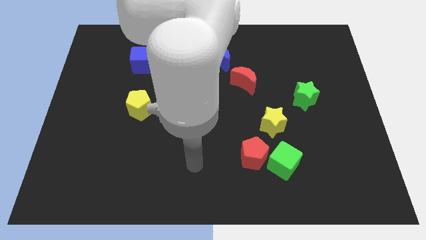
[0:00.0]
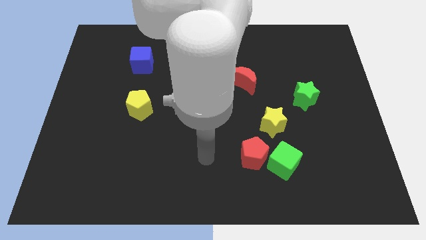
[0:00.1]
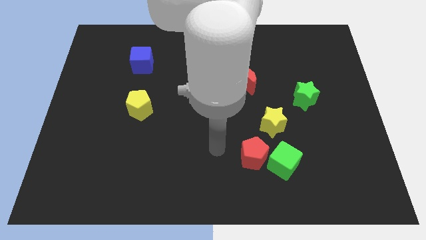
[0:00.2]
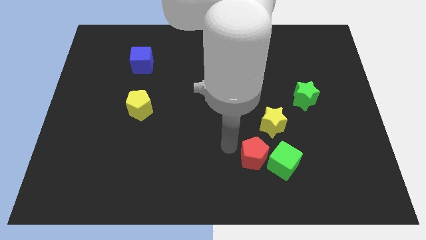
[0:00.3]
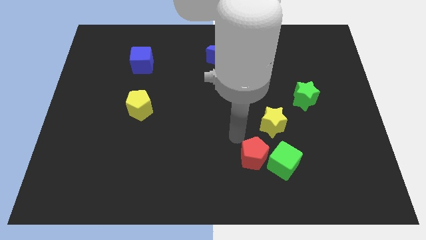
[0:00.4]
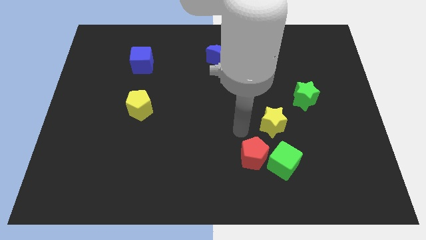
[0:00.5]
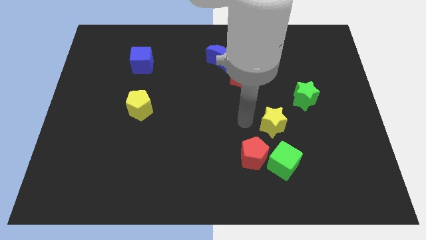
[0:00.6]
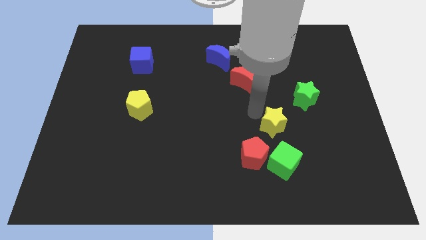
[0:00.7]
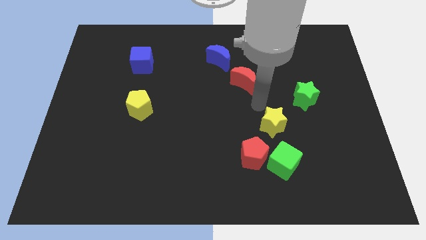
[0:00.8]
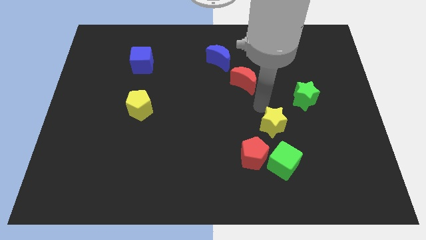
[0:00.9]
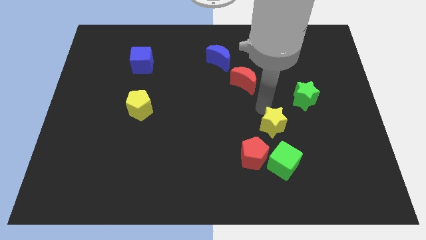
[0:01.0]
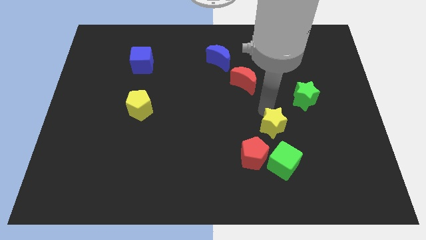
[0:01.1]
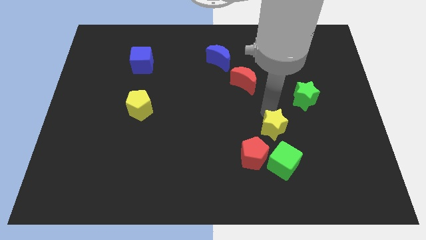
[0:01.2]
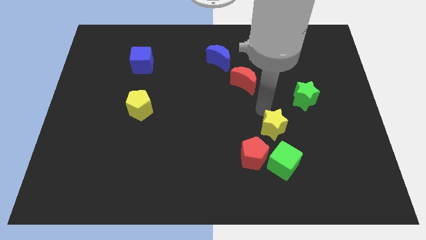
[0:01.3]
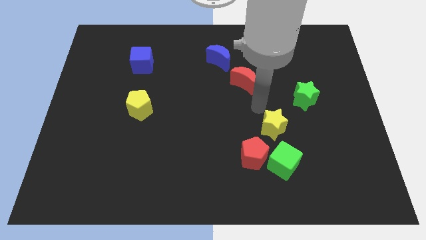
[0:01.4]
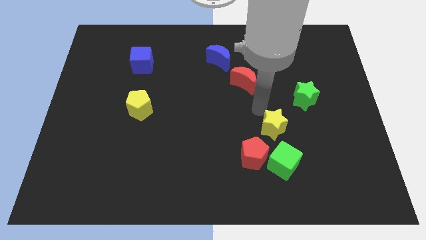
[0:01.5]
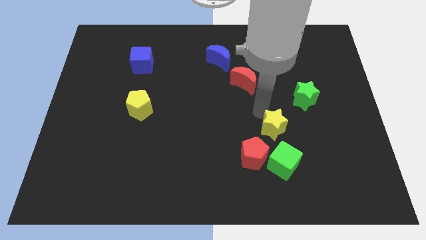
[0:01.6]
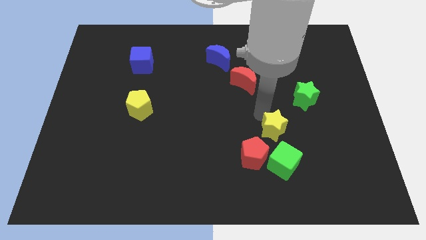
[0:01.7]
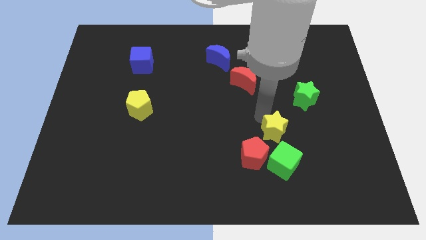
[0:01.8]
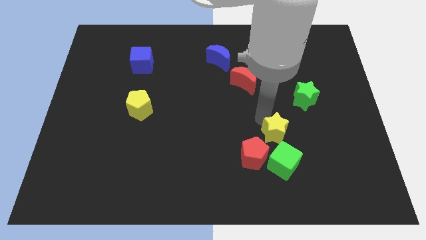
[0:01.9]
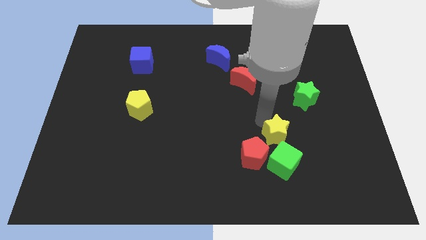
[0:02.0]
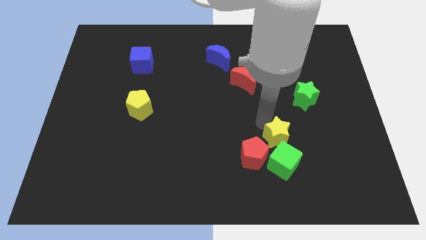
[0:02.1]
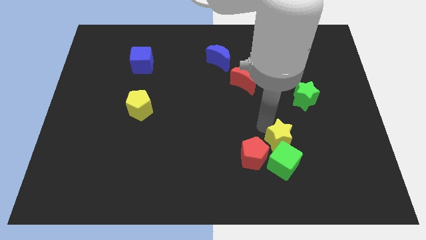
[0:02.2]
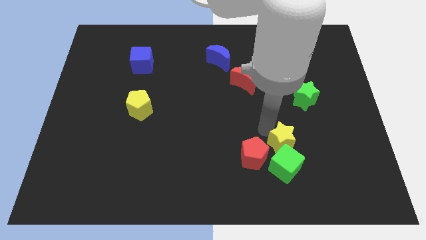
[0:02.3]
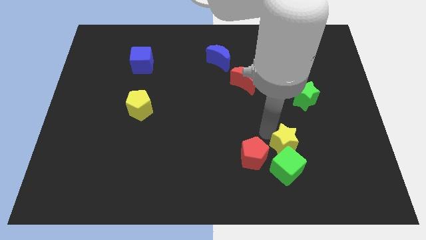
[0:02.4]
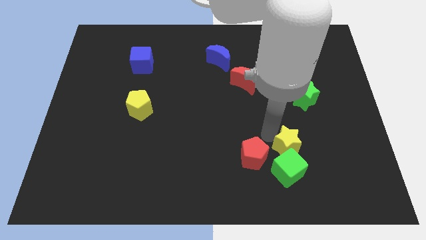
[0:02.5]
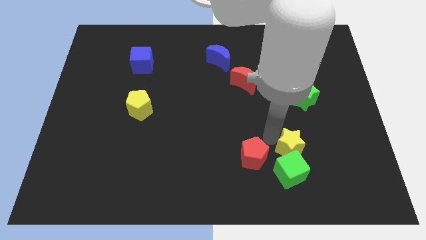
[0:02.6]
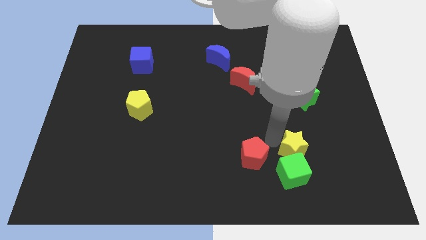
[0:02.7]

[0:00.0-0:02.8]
move the yellow star a little bit downwards and right diagonally

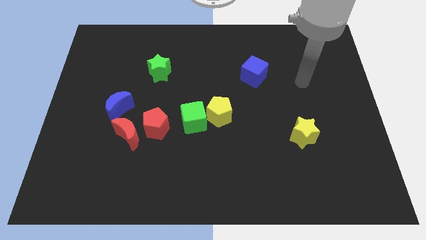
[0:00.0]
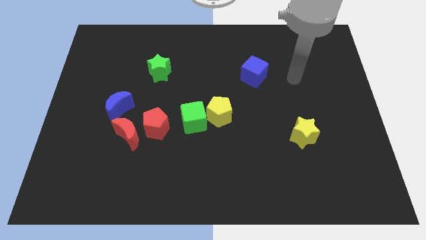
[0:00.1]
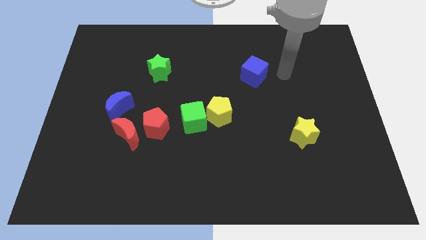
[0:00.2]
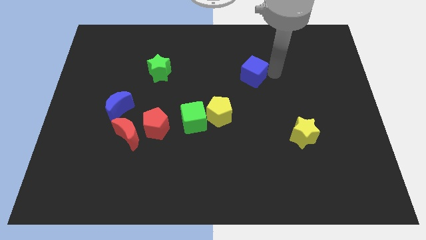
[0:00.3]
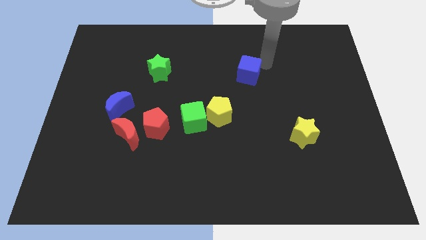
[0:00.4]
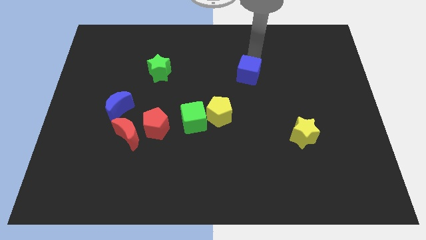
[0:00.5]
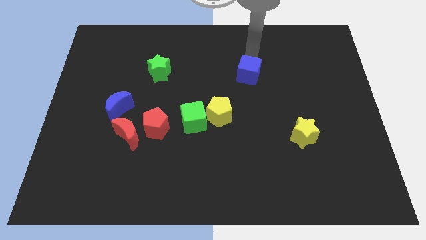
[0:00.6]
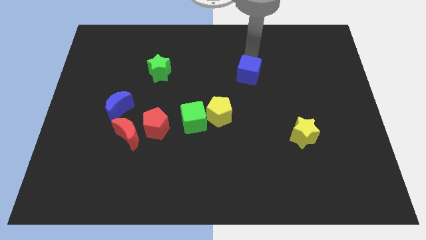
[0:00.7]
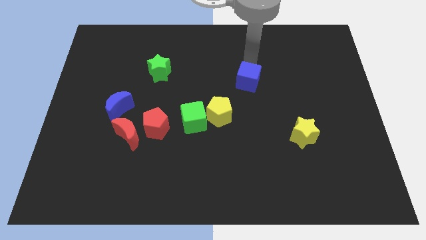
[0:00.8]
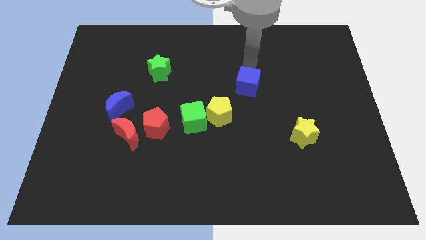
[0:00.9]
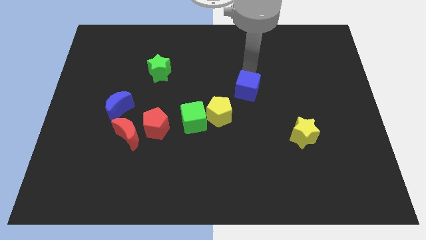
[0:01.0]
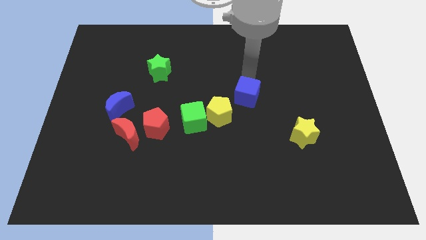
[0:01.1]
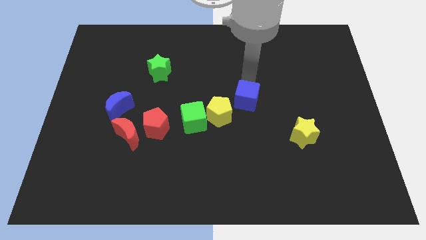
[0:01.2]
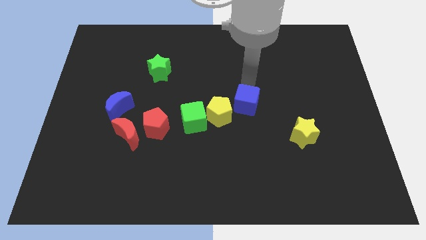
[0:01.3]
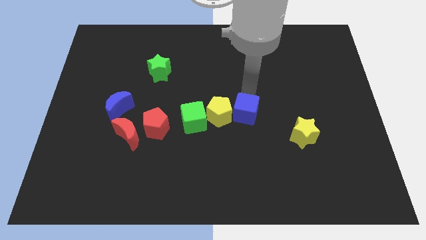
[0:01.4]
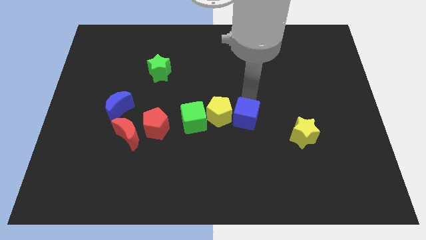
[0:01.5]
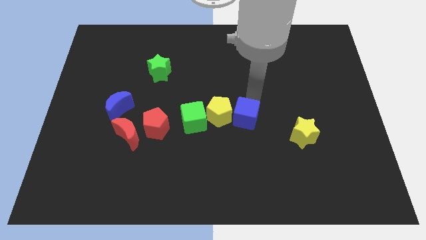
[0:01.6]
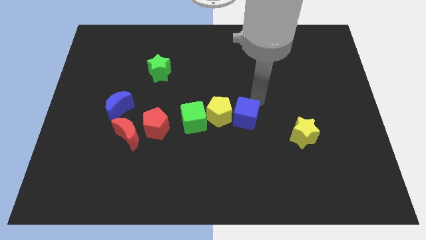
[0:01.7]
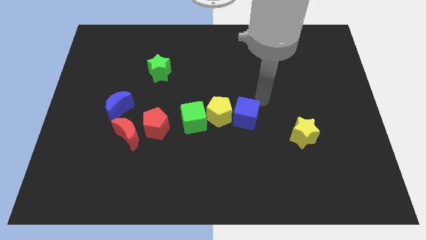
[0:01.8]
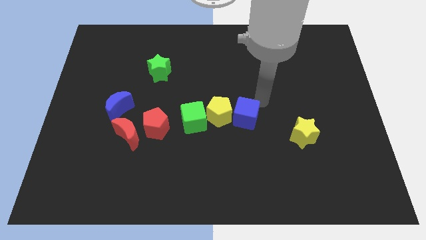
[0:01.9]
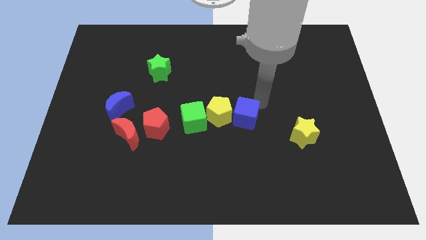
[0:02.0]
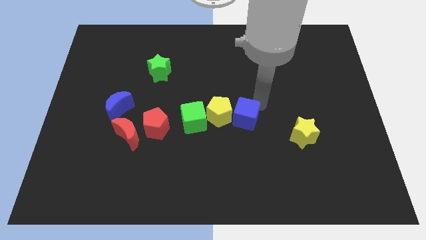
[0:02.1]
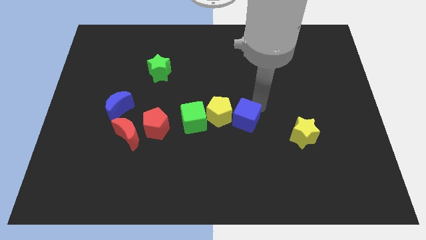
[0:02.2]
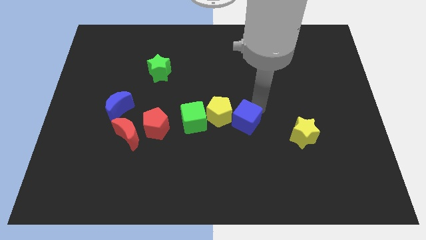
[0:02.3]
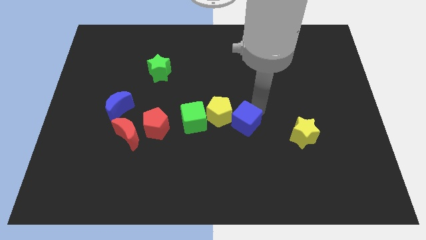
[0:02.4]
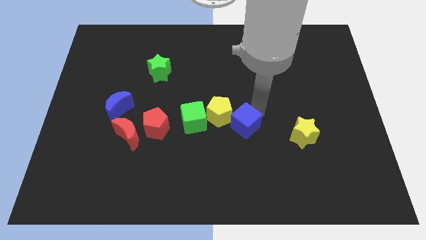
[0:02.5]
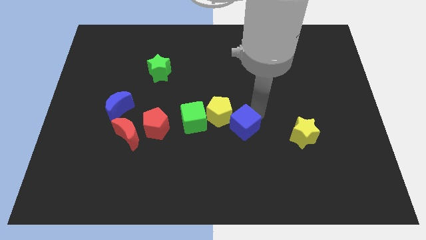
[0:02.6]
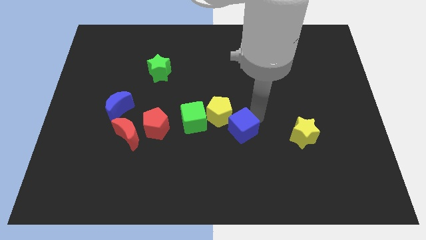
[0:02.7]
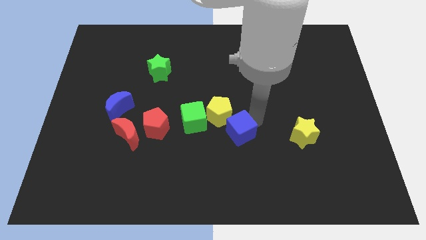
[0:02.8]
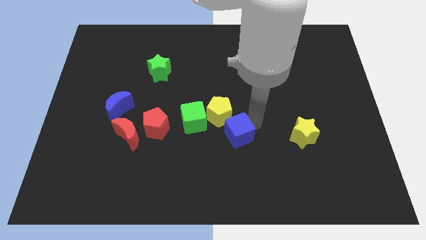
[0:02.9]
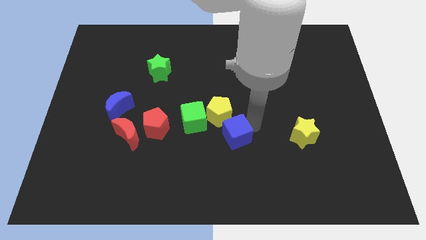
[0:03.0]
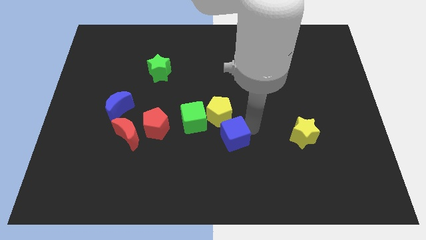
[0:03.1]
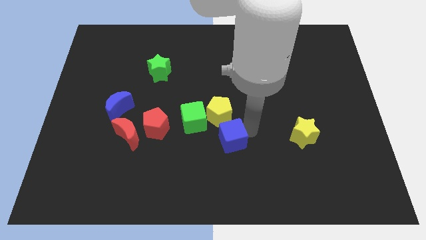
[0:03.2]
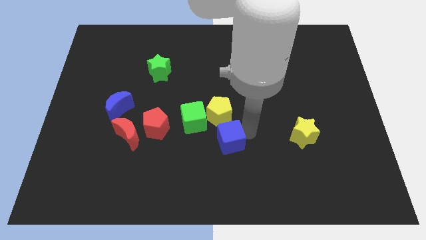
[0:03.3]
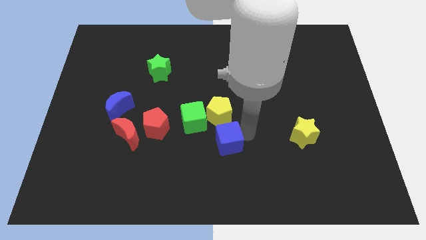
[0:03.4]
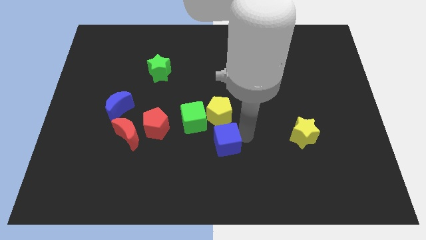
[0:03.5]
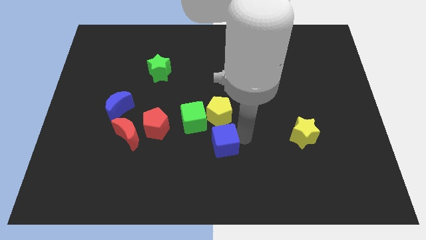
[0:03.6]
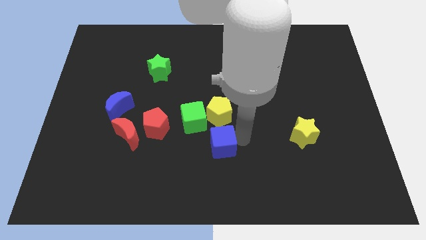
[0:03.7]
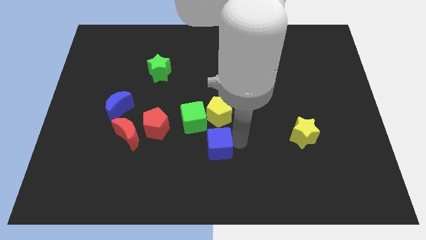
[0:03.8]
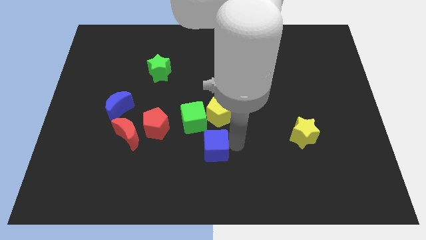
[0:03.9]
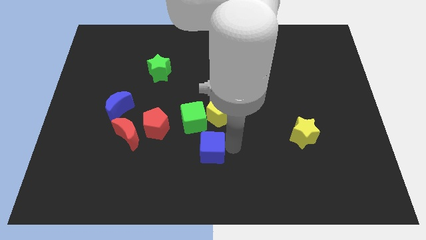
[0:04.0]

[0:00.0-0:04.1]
move the blue cube down and left

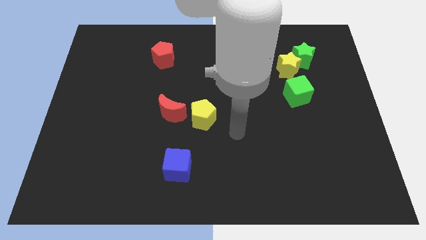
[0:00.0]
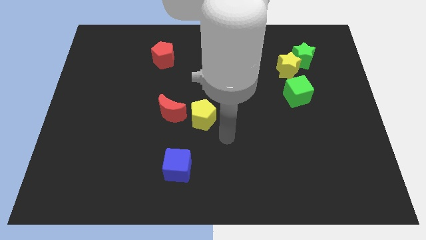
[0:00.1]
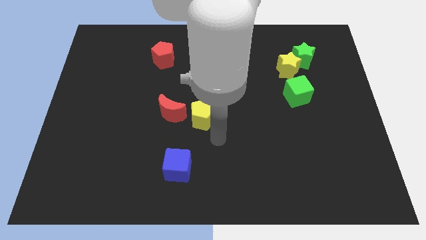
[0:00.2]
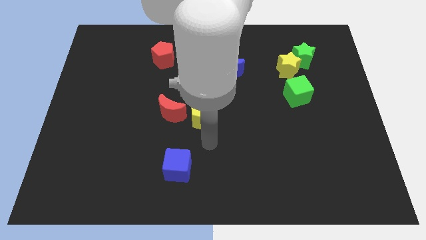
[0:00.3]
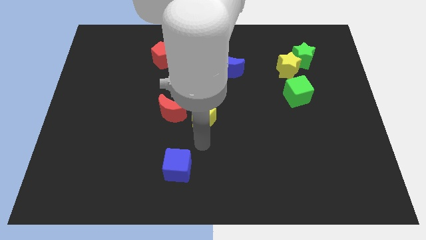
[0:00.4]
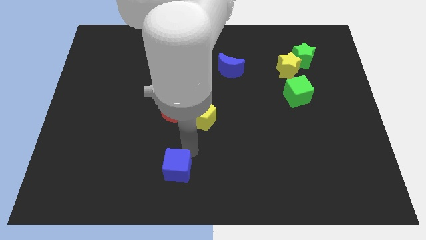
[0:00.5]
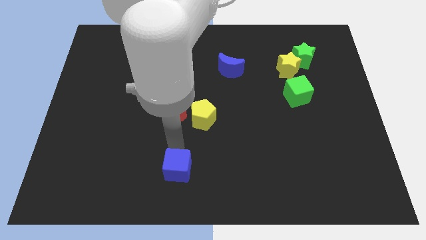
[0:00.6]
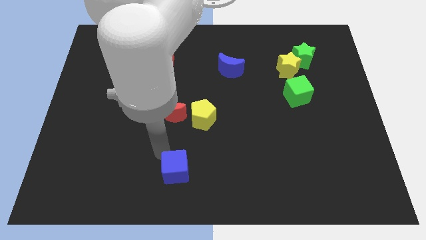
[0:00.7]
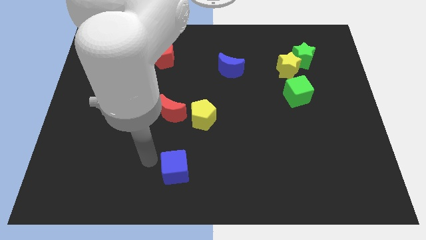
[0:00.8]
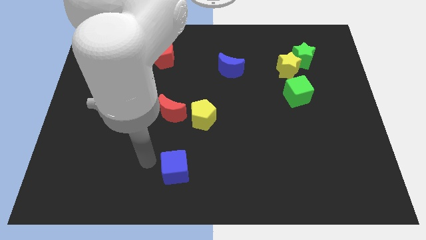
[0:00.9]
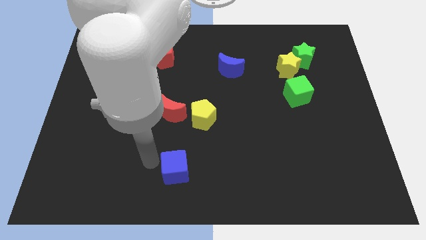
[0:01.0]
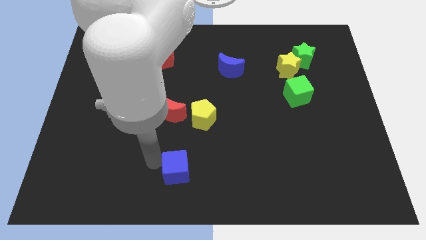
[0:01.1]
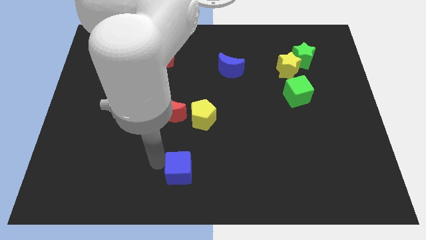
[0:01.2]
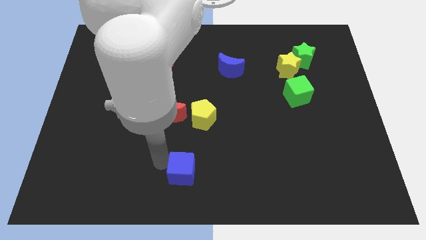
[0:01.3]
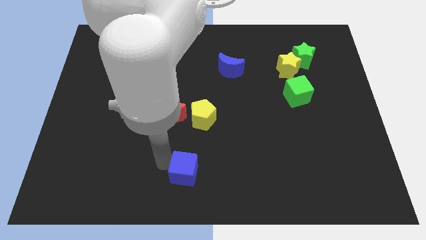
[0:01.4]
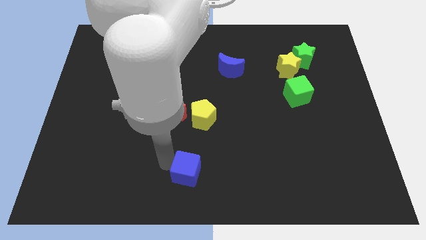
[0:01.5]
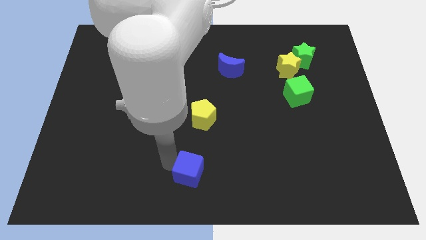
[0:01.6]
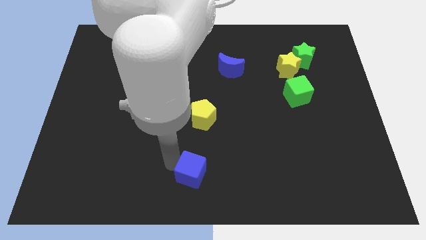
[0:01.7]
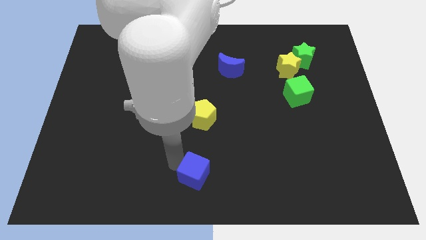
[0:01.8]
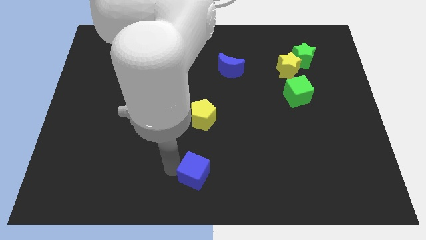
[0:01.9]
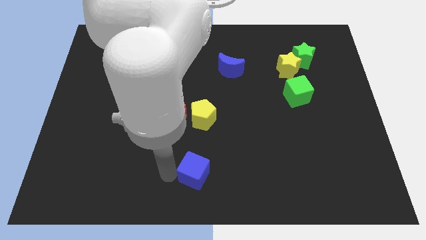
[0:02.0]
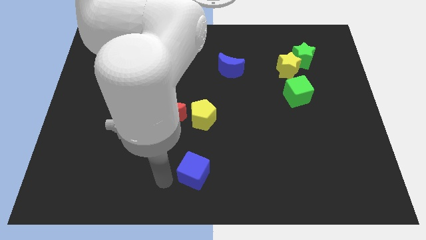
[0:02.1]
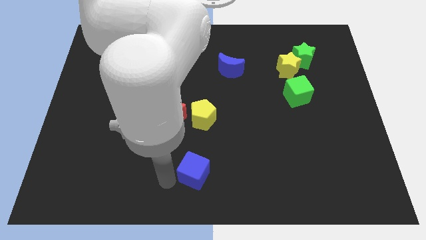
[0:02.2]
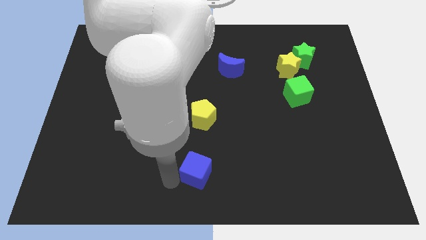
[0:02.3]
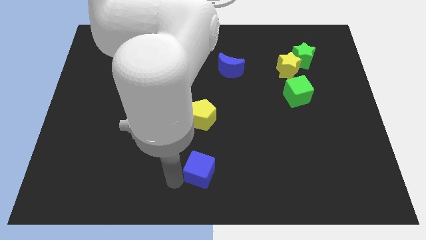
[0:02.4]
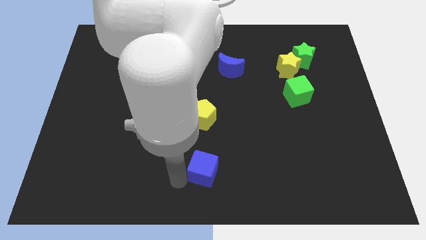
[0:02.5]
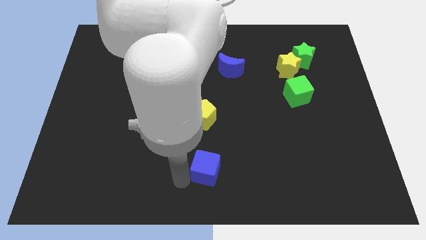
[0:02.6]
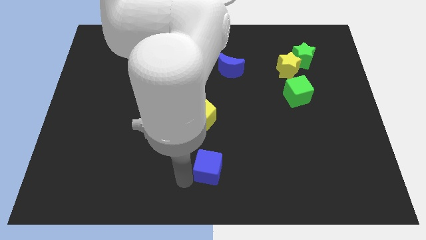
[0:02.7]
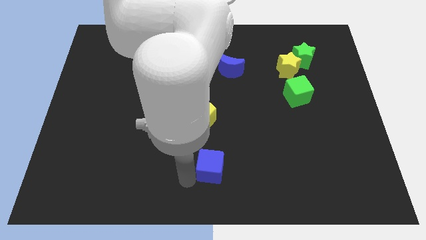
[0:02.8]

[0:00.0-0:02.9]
slightly slide the blue cube to the right
